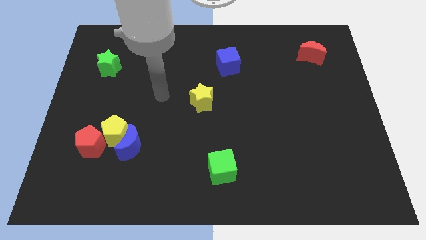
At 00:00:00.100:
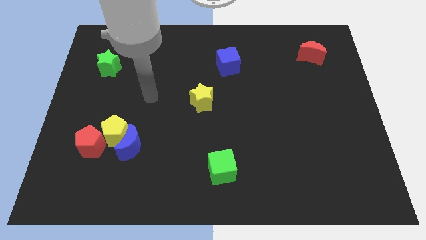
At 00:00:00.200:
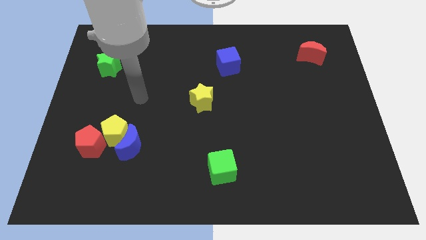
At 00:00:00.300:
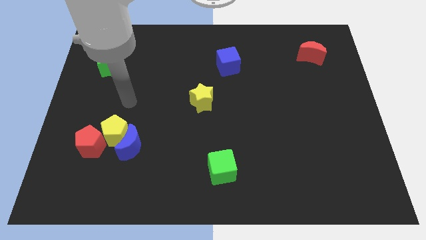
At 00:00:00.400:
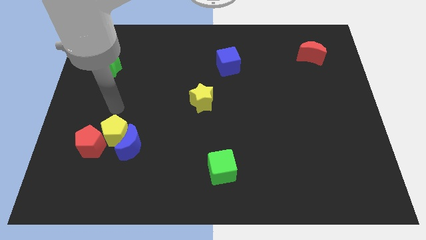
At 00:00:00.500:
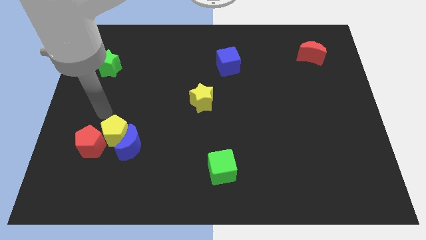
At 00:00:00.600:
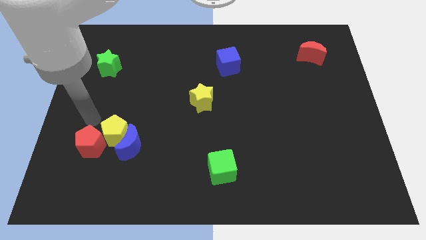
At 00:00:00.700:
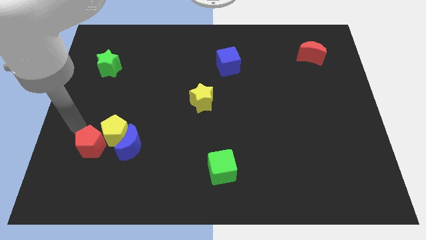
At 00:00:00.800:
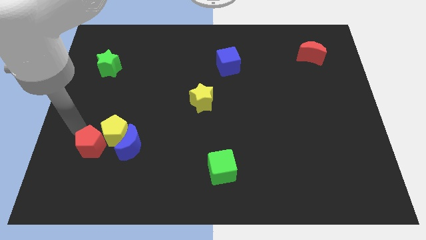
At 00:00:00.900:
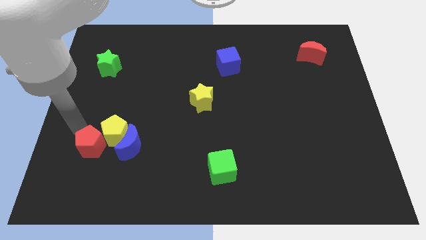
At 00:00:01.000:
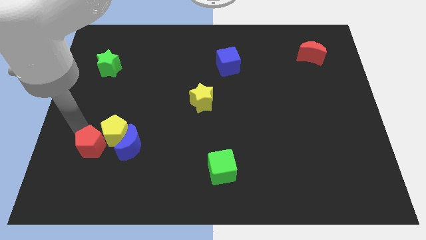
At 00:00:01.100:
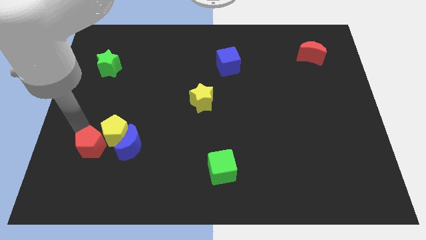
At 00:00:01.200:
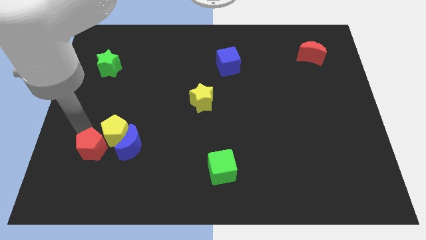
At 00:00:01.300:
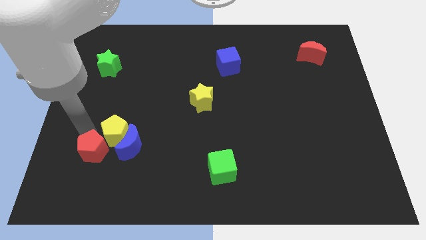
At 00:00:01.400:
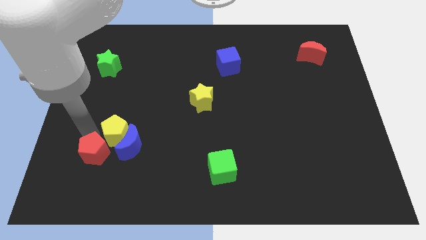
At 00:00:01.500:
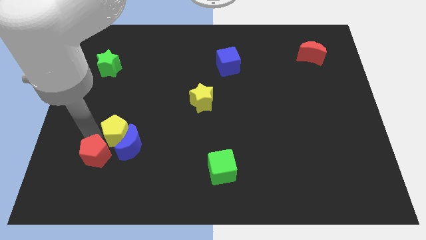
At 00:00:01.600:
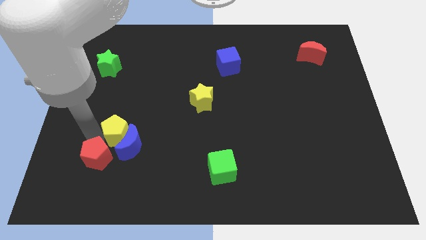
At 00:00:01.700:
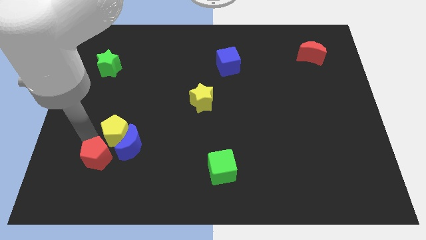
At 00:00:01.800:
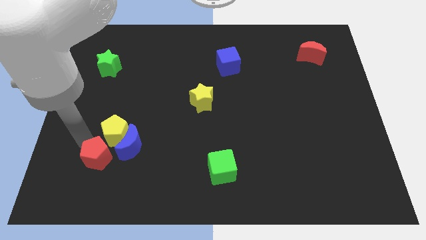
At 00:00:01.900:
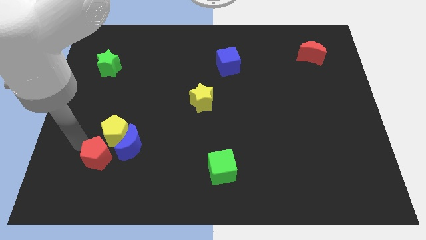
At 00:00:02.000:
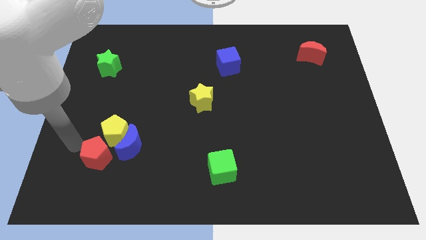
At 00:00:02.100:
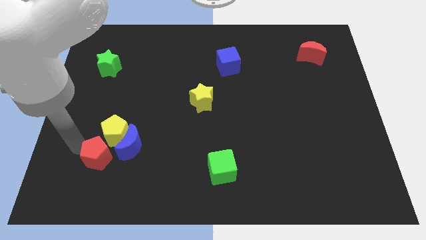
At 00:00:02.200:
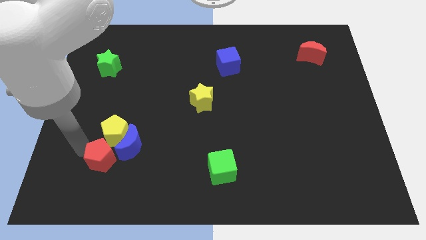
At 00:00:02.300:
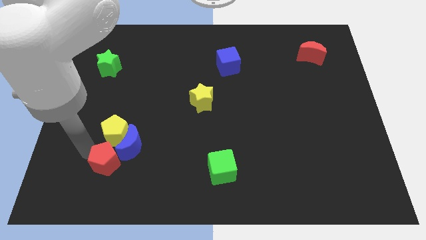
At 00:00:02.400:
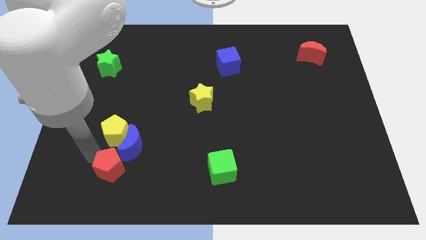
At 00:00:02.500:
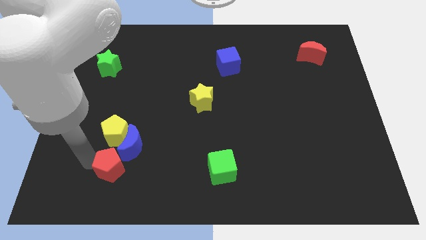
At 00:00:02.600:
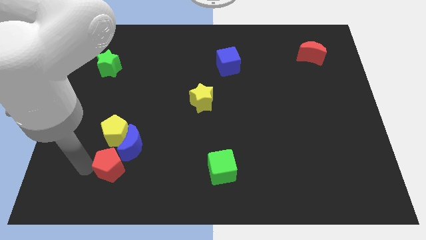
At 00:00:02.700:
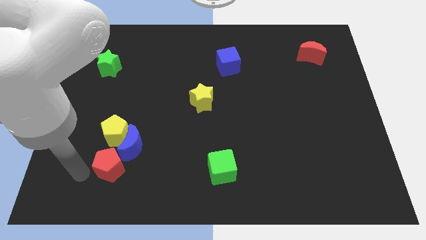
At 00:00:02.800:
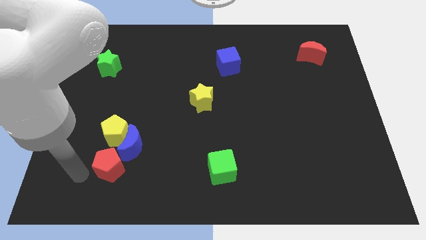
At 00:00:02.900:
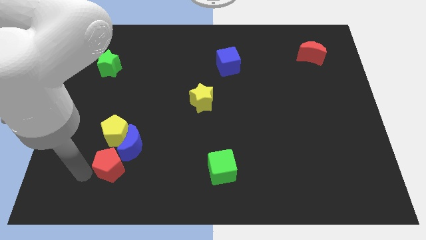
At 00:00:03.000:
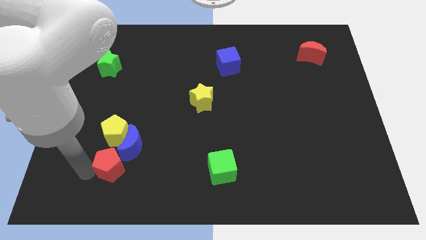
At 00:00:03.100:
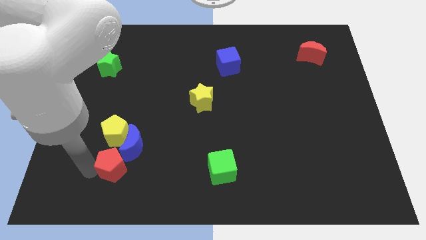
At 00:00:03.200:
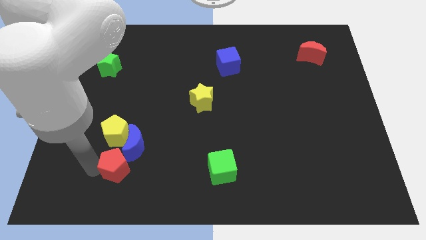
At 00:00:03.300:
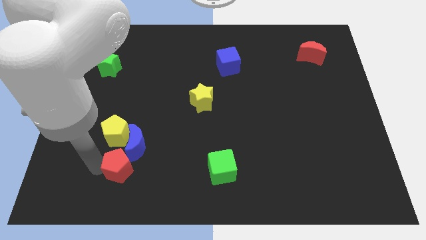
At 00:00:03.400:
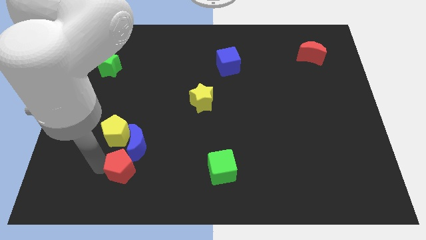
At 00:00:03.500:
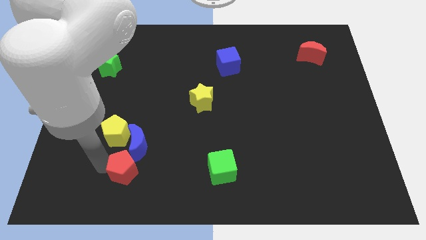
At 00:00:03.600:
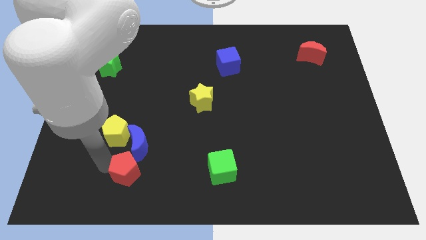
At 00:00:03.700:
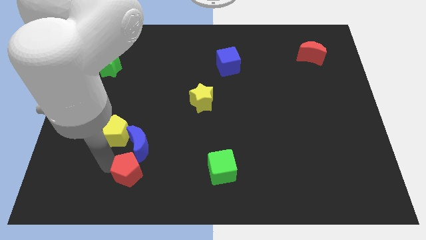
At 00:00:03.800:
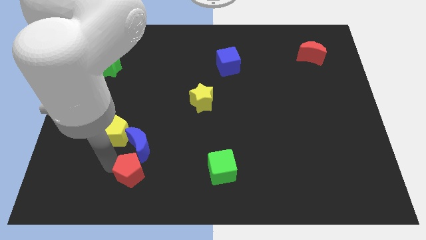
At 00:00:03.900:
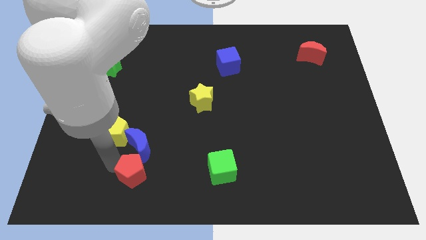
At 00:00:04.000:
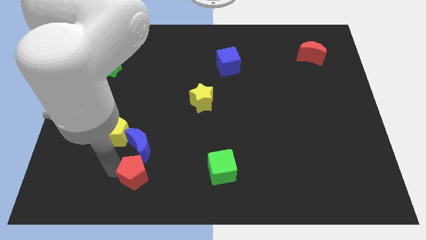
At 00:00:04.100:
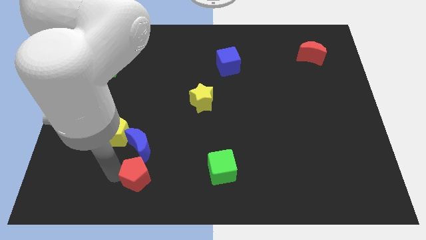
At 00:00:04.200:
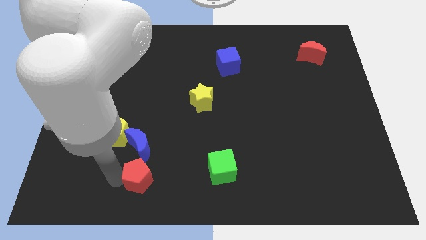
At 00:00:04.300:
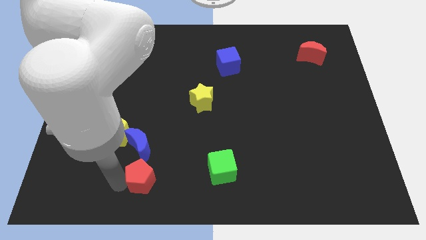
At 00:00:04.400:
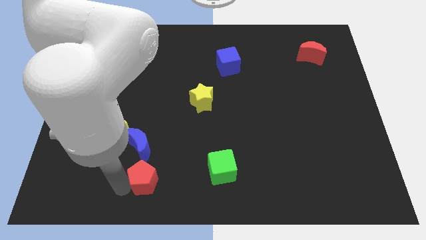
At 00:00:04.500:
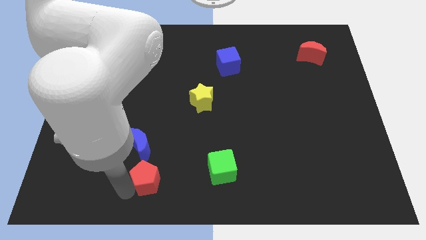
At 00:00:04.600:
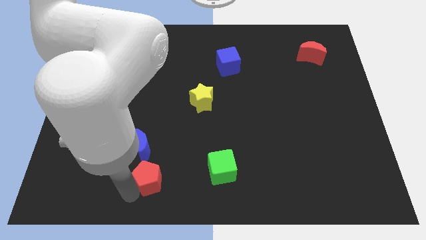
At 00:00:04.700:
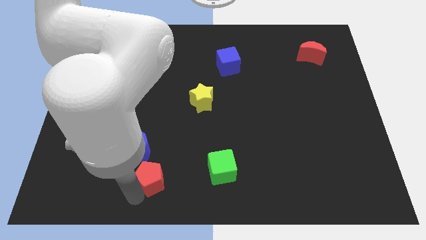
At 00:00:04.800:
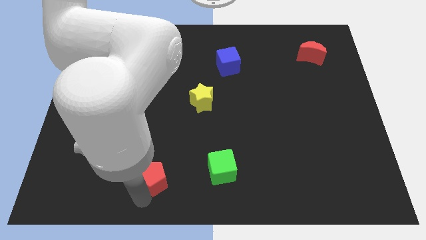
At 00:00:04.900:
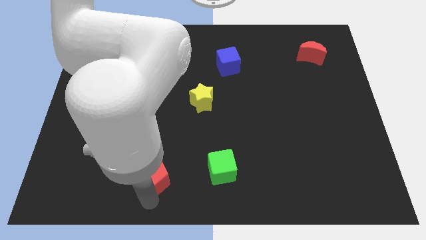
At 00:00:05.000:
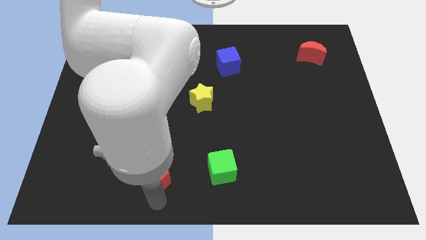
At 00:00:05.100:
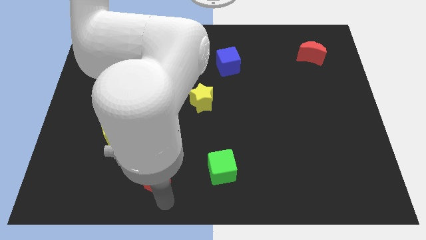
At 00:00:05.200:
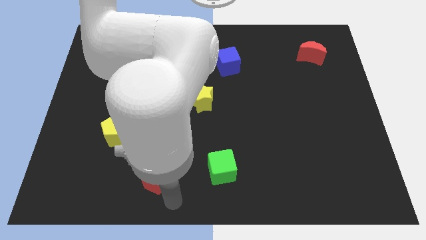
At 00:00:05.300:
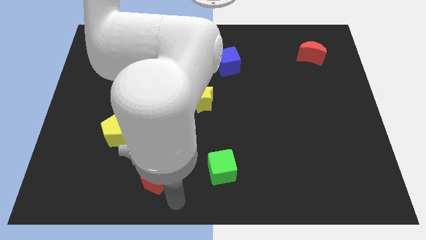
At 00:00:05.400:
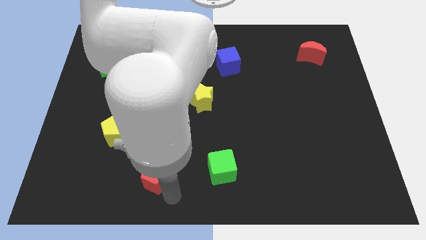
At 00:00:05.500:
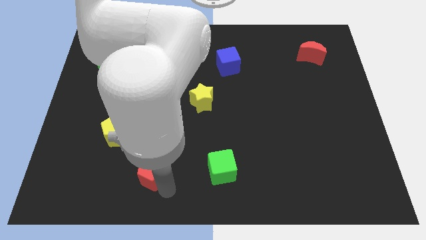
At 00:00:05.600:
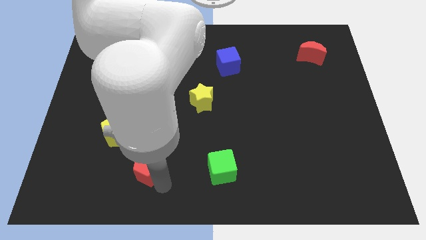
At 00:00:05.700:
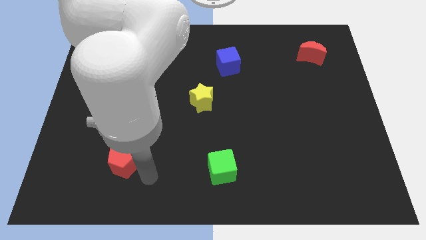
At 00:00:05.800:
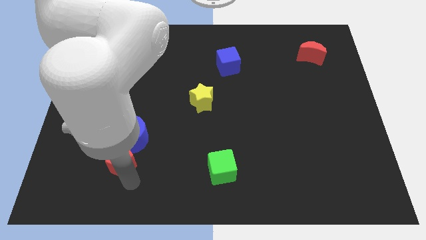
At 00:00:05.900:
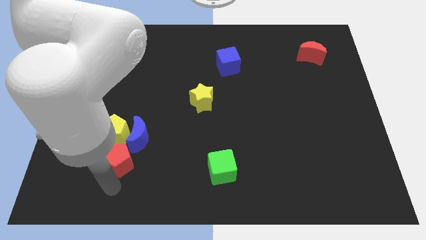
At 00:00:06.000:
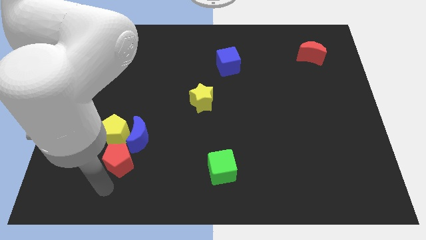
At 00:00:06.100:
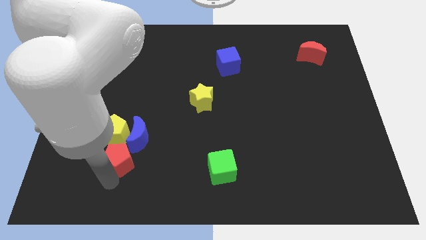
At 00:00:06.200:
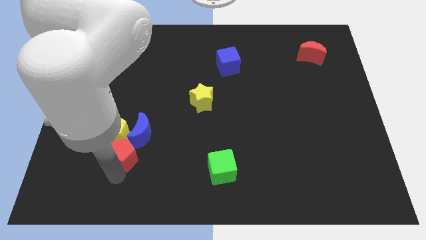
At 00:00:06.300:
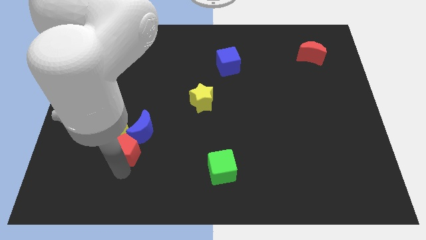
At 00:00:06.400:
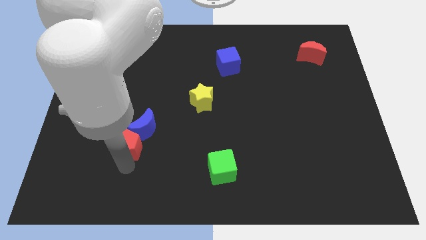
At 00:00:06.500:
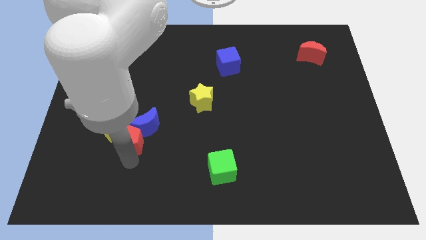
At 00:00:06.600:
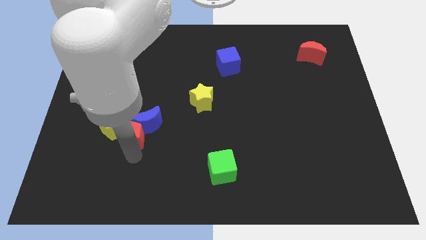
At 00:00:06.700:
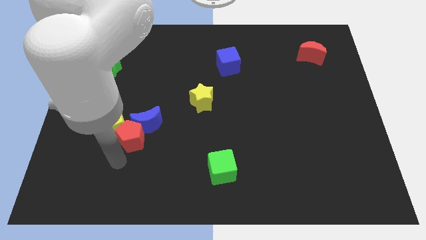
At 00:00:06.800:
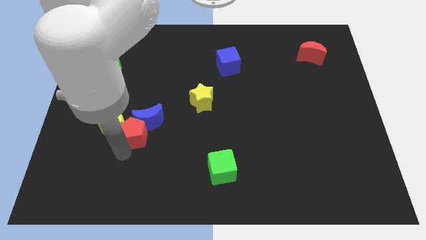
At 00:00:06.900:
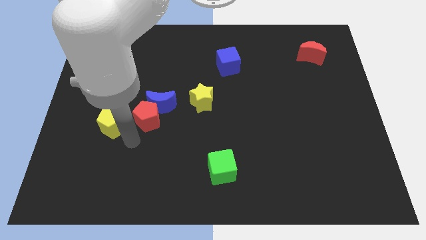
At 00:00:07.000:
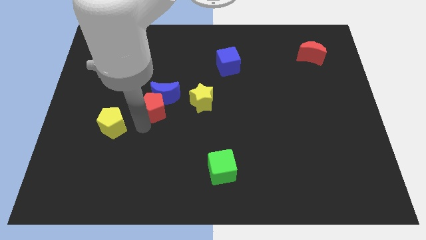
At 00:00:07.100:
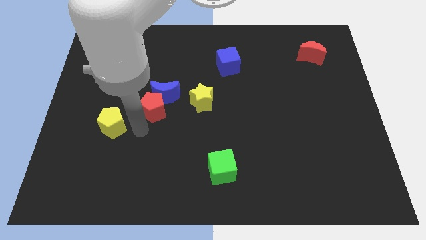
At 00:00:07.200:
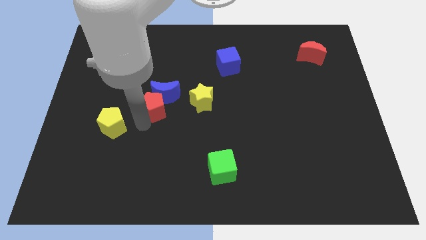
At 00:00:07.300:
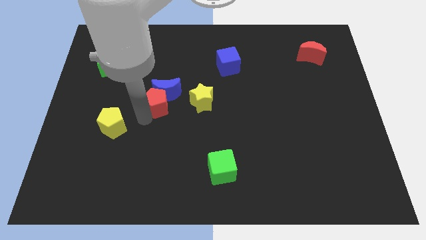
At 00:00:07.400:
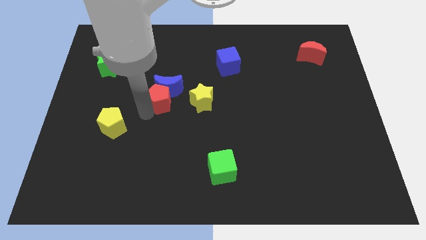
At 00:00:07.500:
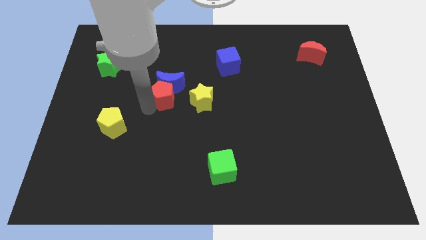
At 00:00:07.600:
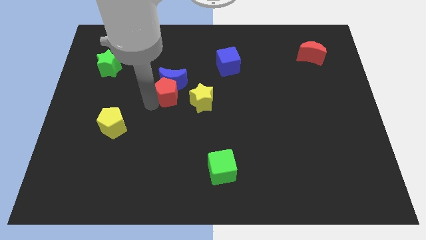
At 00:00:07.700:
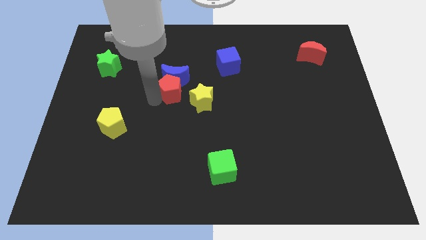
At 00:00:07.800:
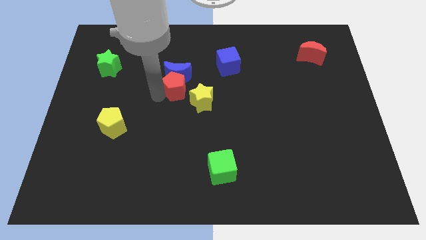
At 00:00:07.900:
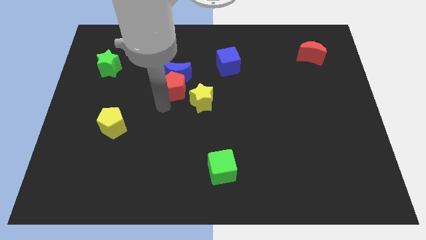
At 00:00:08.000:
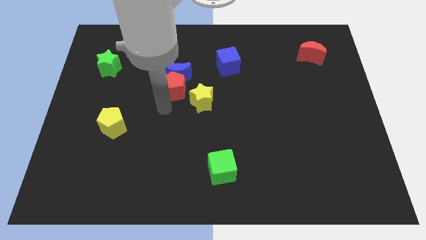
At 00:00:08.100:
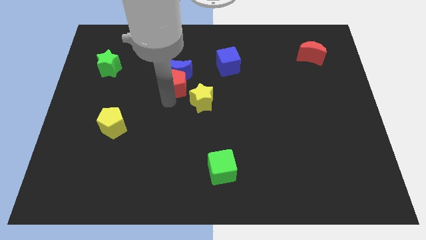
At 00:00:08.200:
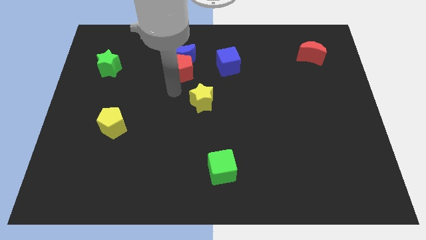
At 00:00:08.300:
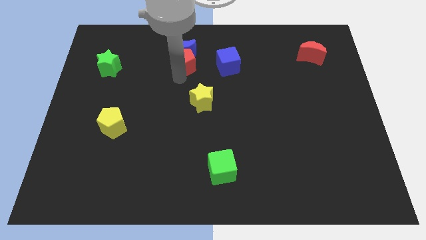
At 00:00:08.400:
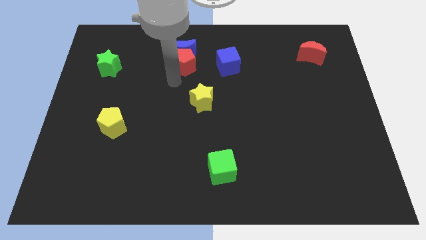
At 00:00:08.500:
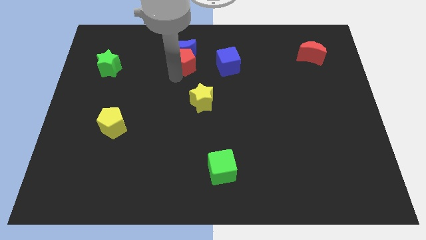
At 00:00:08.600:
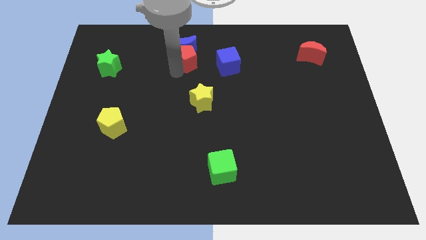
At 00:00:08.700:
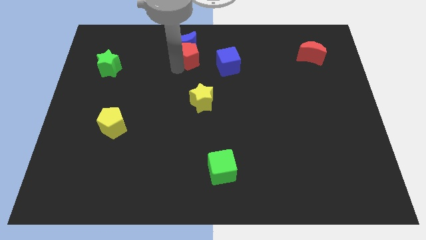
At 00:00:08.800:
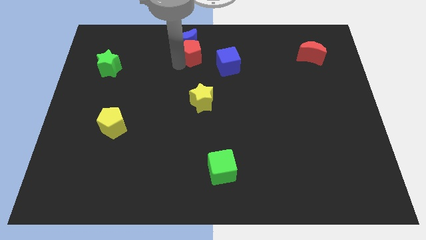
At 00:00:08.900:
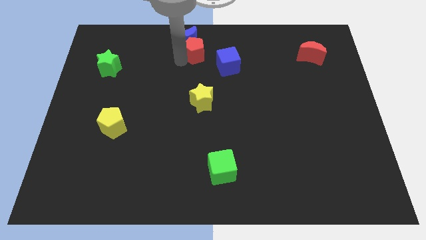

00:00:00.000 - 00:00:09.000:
move the red pentagon to the top
